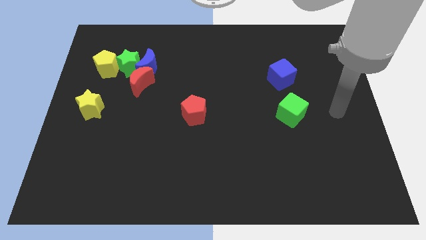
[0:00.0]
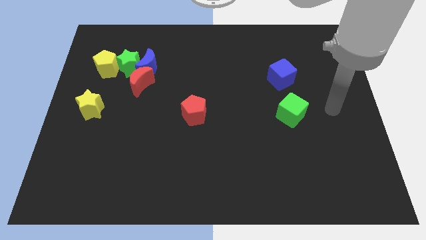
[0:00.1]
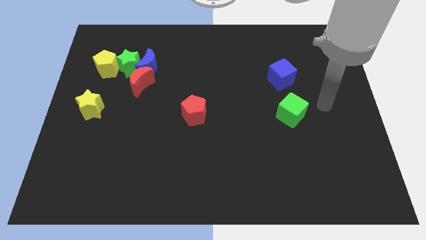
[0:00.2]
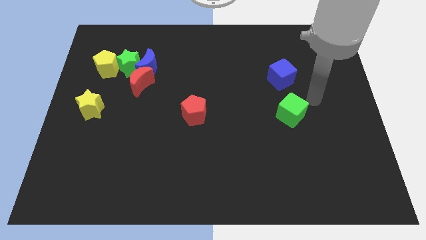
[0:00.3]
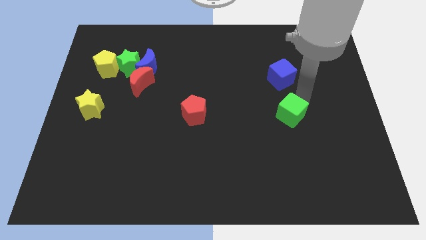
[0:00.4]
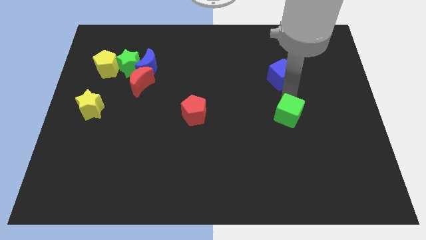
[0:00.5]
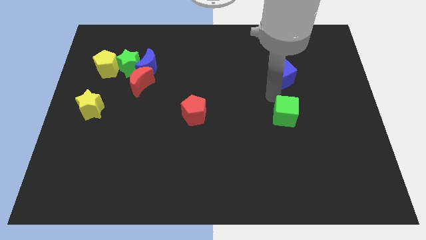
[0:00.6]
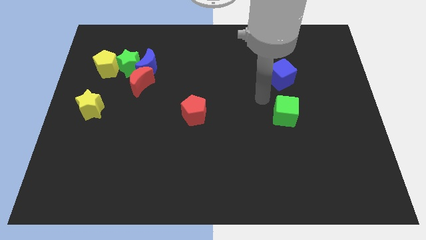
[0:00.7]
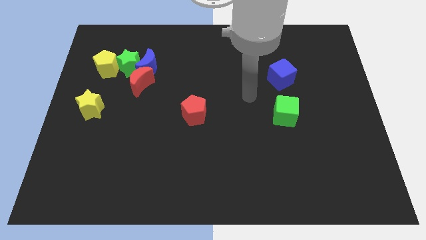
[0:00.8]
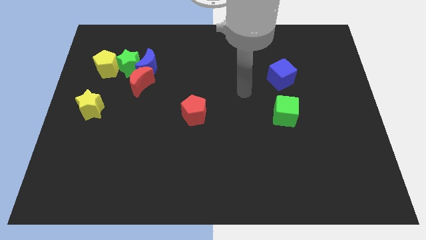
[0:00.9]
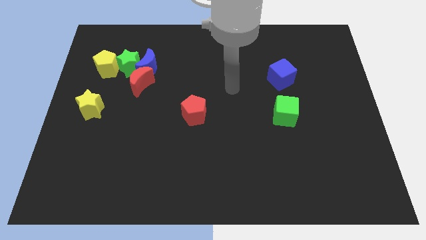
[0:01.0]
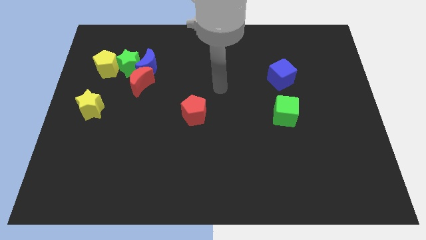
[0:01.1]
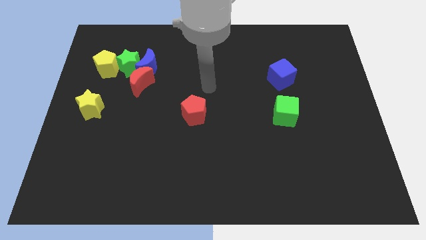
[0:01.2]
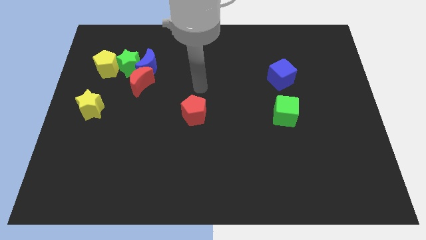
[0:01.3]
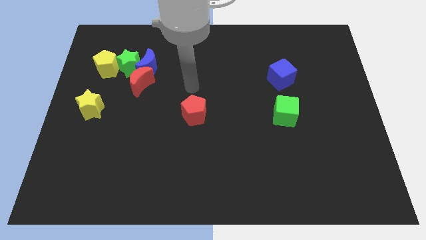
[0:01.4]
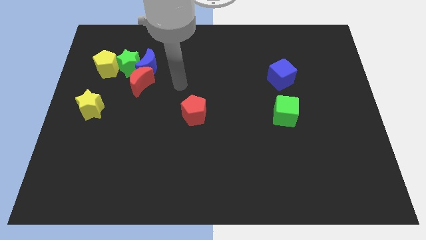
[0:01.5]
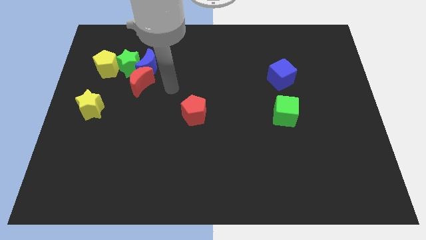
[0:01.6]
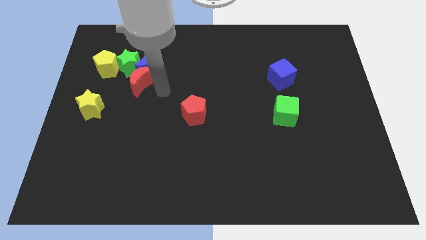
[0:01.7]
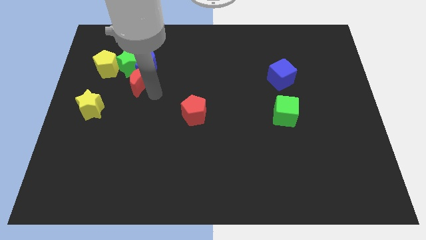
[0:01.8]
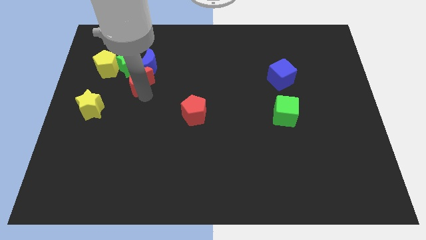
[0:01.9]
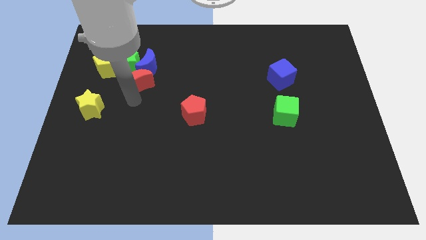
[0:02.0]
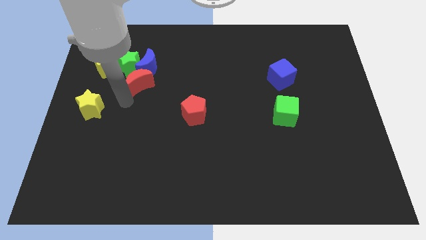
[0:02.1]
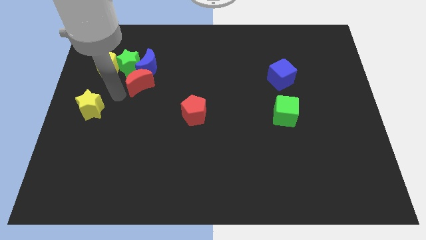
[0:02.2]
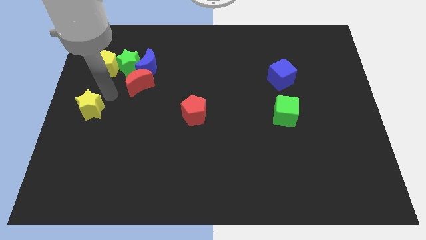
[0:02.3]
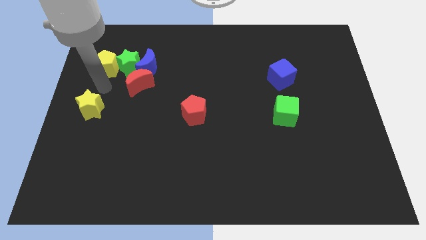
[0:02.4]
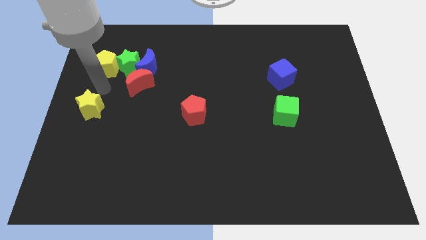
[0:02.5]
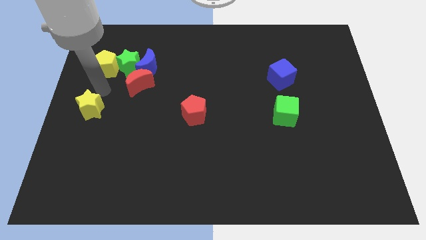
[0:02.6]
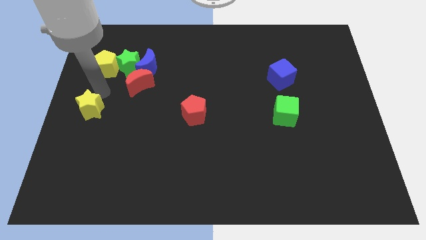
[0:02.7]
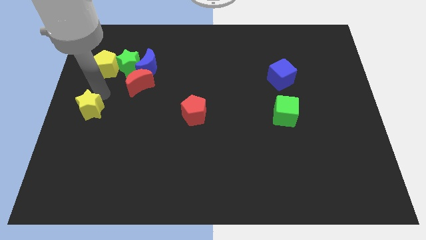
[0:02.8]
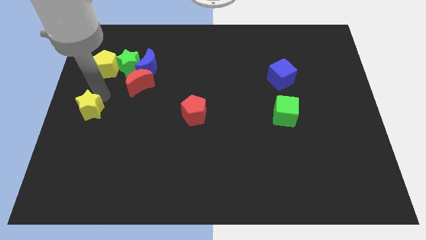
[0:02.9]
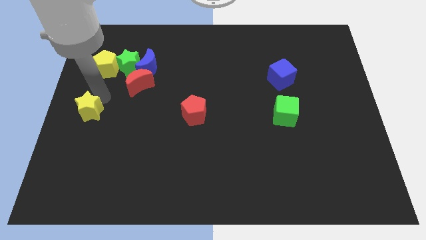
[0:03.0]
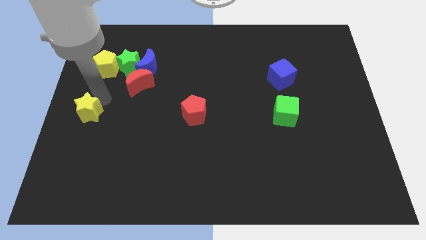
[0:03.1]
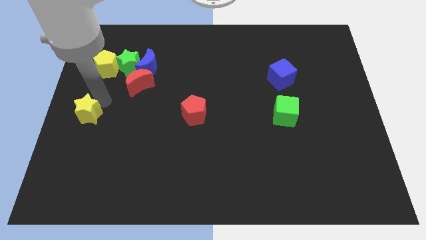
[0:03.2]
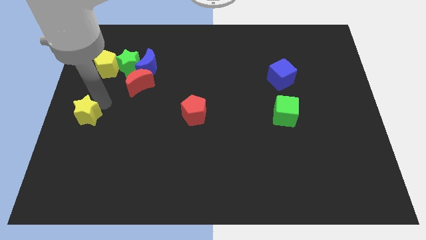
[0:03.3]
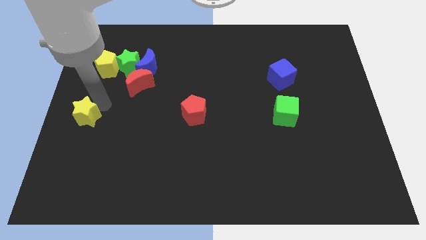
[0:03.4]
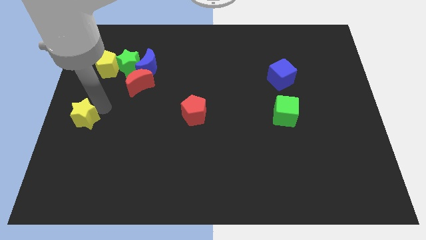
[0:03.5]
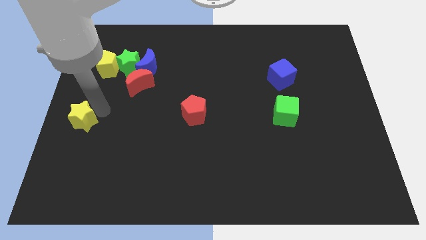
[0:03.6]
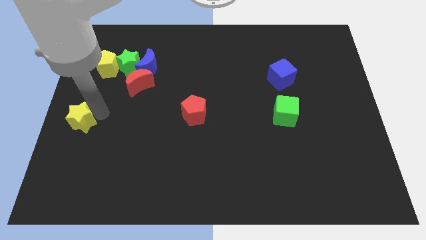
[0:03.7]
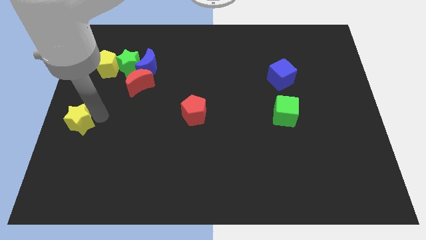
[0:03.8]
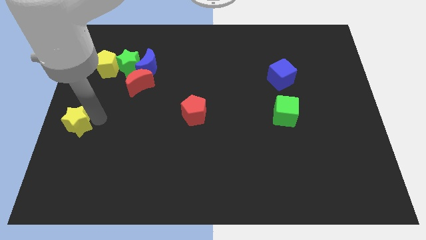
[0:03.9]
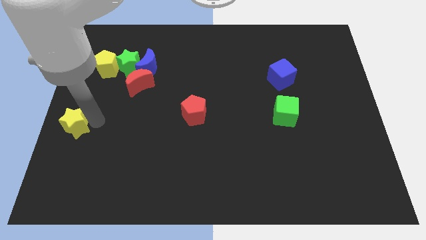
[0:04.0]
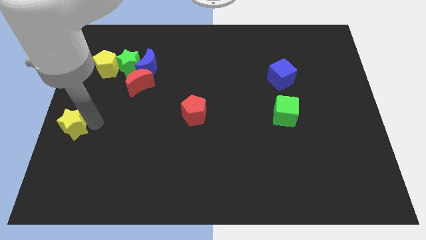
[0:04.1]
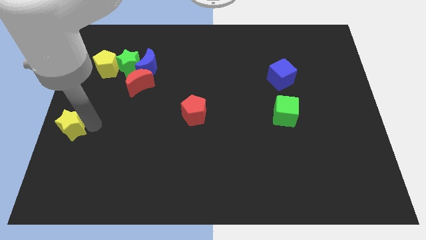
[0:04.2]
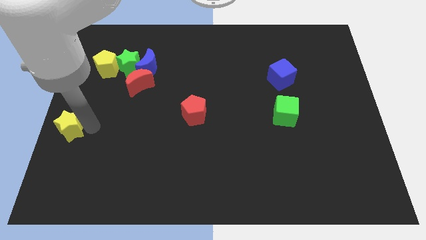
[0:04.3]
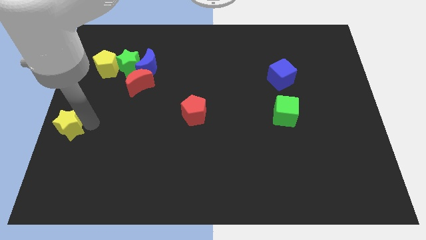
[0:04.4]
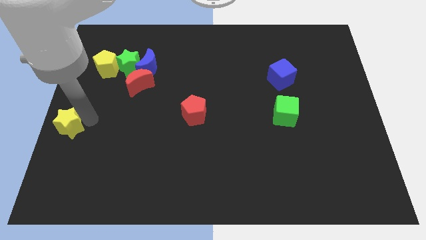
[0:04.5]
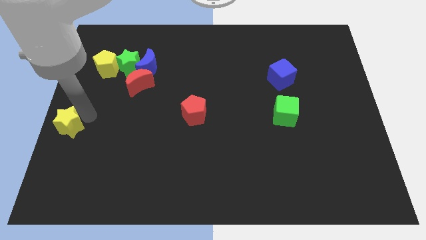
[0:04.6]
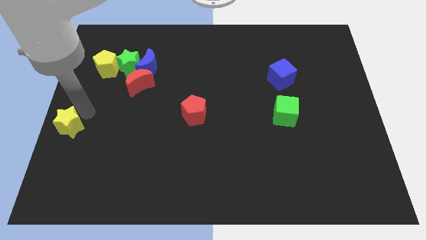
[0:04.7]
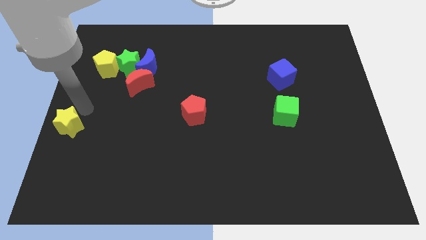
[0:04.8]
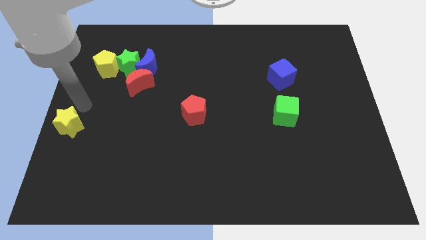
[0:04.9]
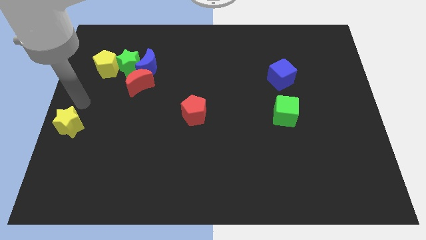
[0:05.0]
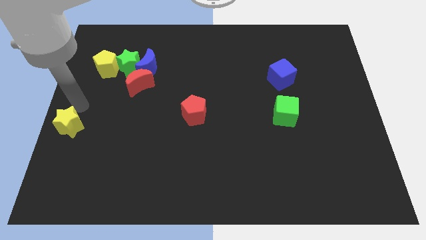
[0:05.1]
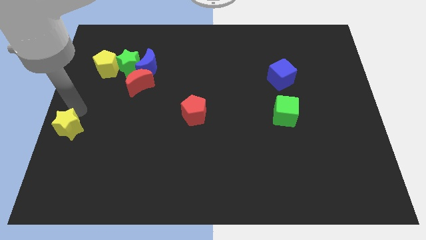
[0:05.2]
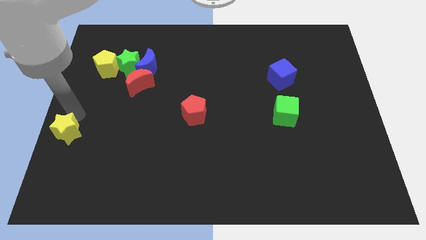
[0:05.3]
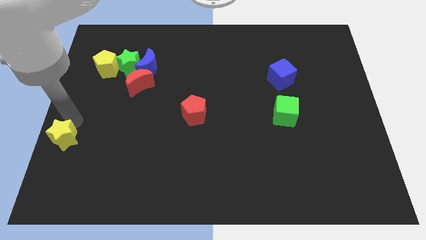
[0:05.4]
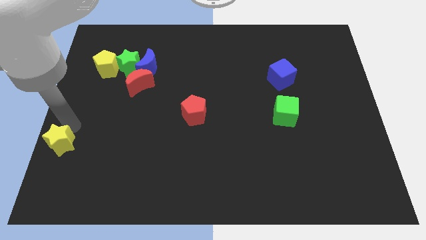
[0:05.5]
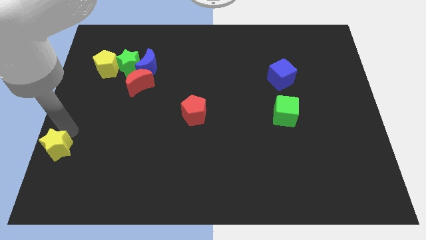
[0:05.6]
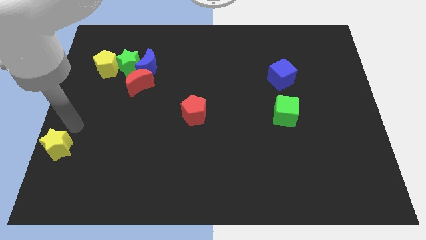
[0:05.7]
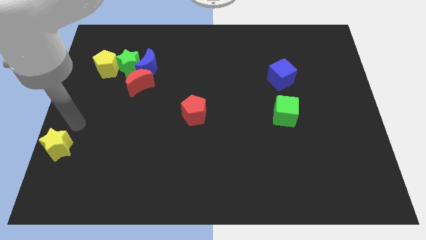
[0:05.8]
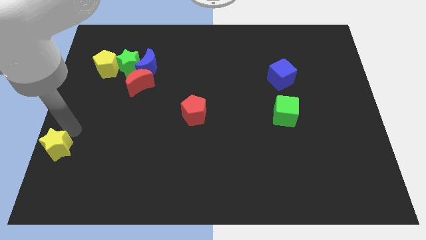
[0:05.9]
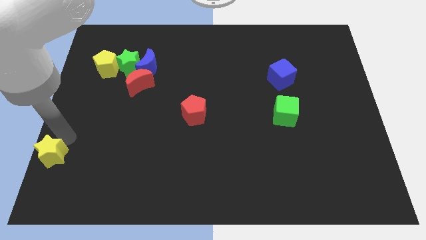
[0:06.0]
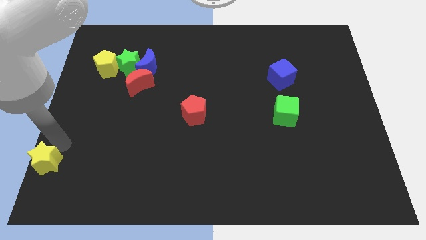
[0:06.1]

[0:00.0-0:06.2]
move the yellow star to the lower left corner
